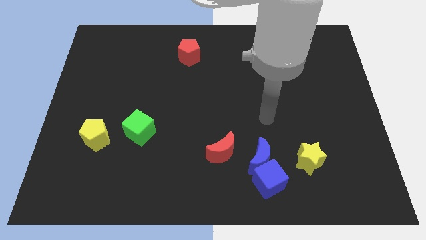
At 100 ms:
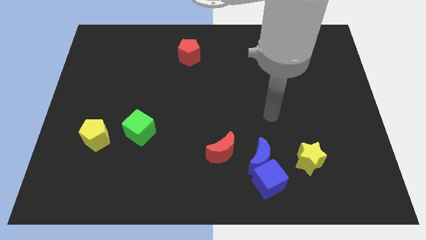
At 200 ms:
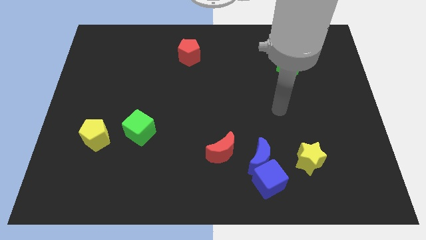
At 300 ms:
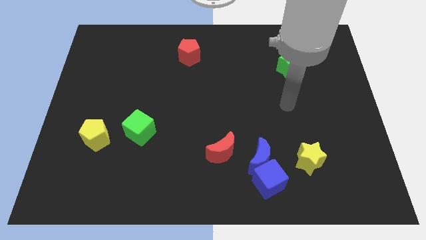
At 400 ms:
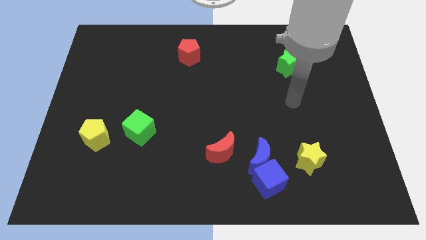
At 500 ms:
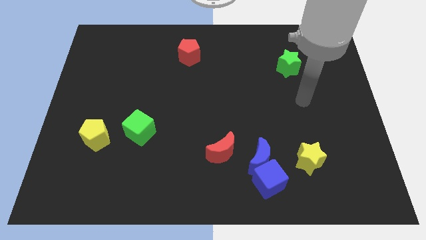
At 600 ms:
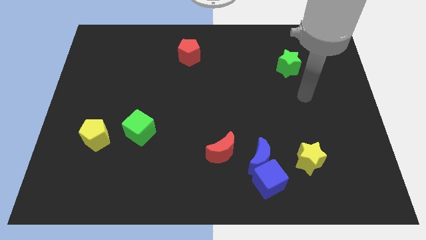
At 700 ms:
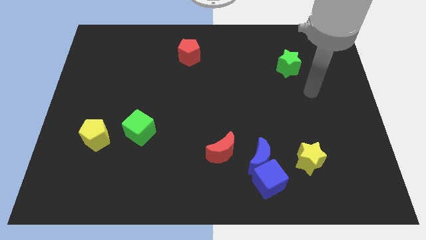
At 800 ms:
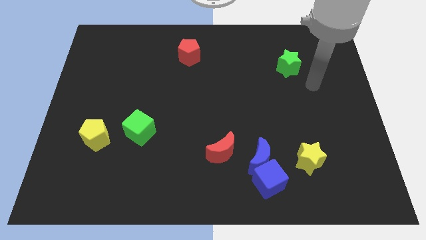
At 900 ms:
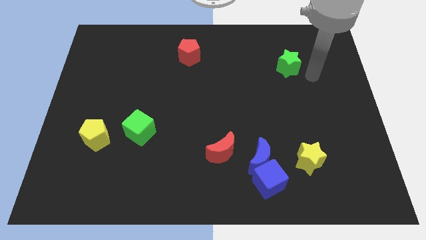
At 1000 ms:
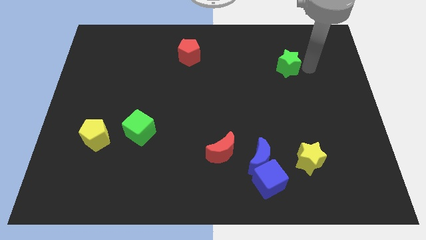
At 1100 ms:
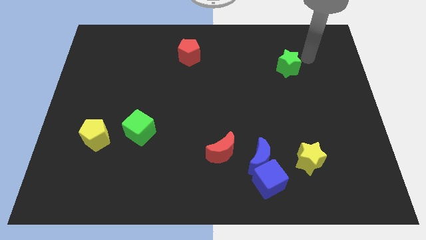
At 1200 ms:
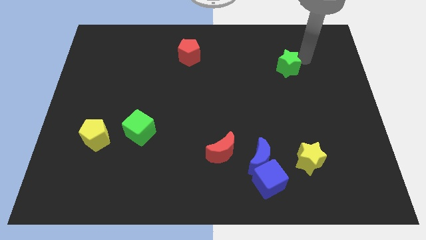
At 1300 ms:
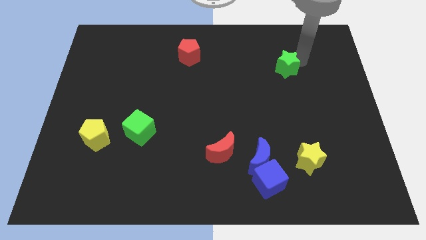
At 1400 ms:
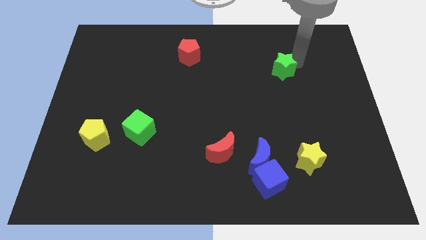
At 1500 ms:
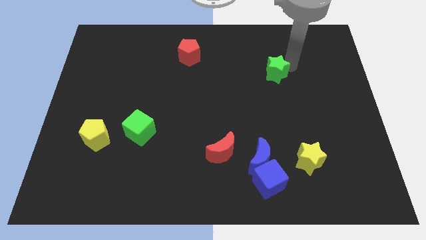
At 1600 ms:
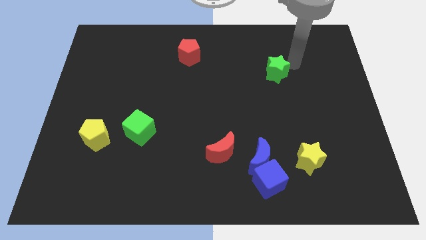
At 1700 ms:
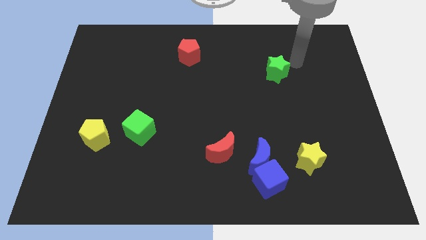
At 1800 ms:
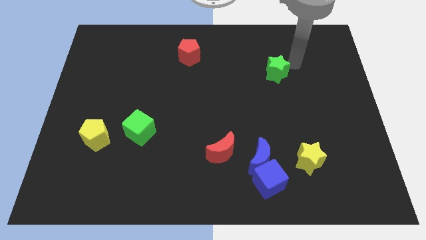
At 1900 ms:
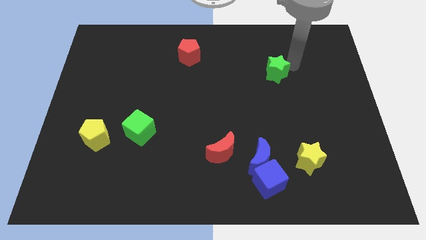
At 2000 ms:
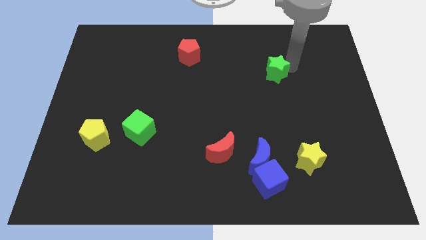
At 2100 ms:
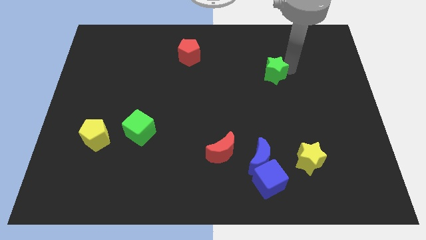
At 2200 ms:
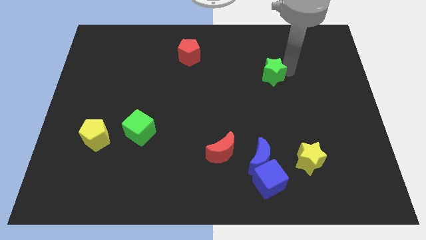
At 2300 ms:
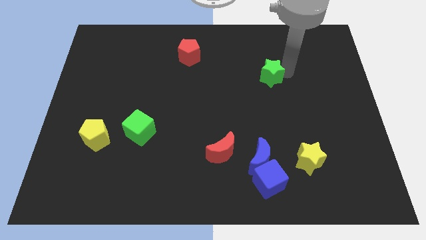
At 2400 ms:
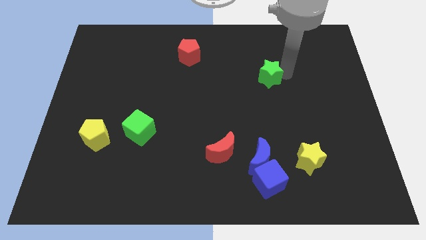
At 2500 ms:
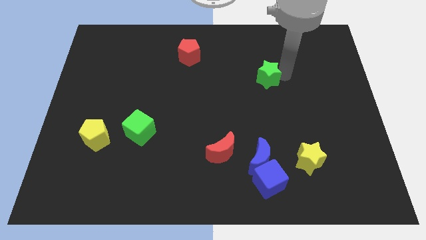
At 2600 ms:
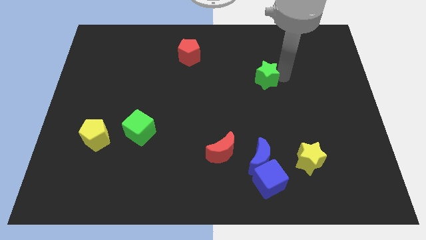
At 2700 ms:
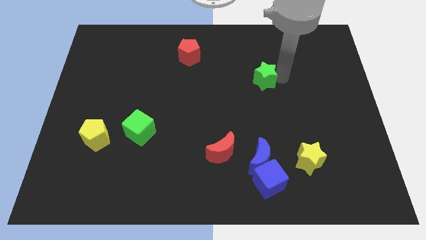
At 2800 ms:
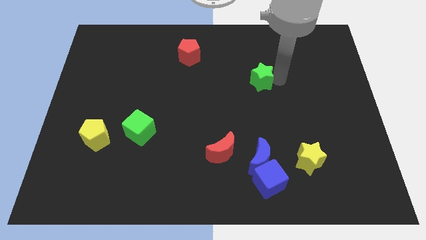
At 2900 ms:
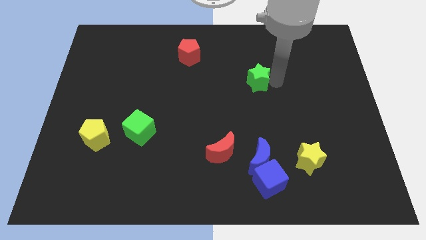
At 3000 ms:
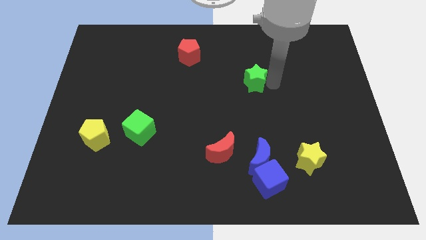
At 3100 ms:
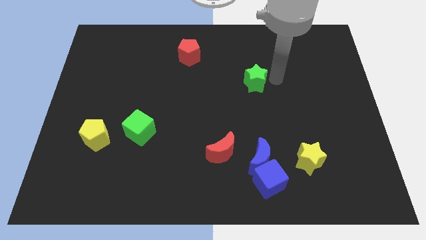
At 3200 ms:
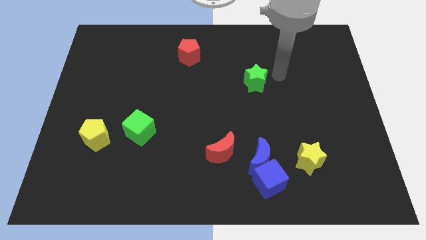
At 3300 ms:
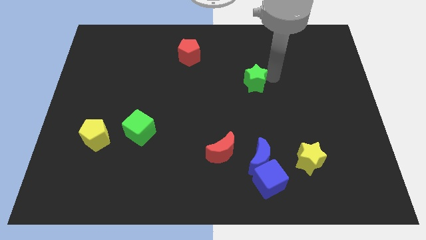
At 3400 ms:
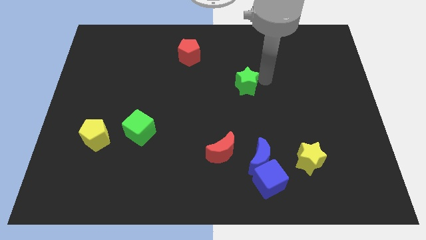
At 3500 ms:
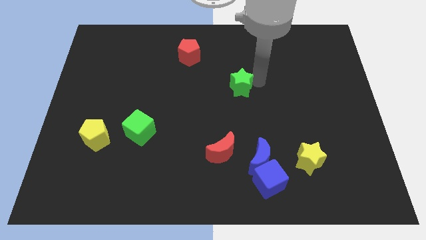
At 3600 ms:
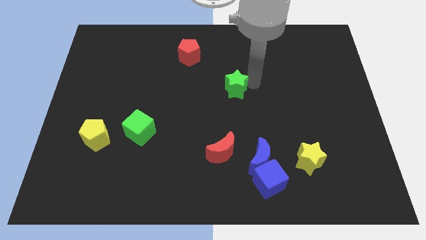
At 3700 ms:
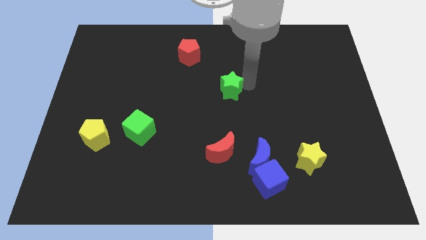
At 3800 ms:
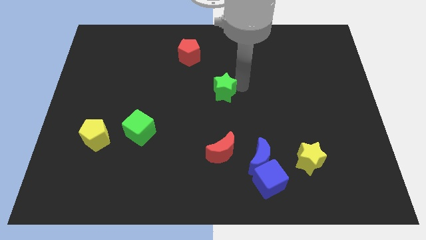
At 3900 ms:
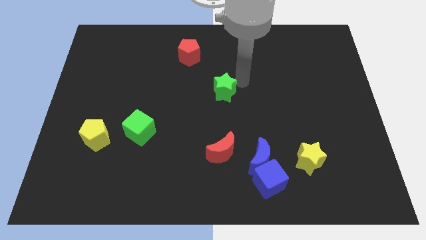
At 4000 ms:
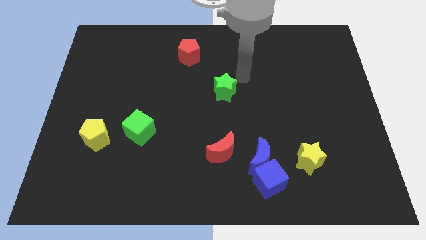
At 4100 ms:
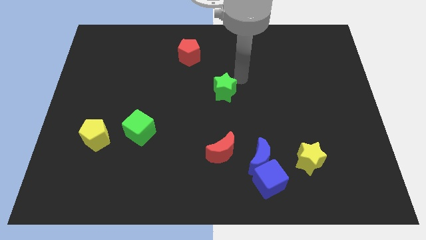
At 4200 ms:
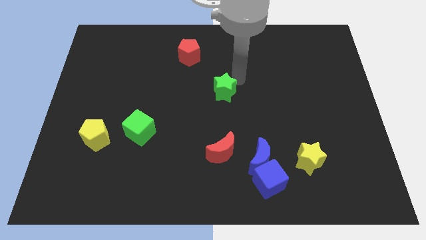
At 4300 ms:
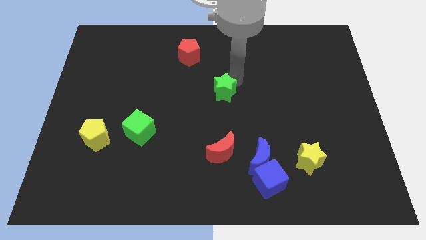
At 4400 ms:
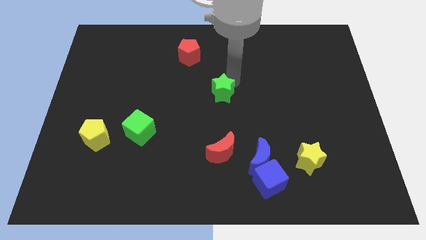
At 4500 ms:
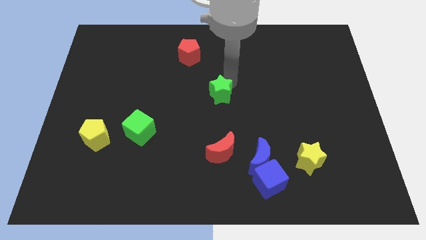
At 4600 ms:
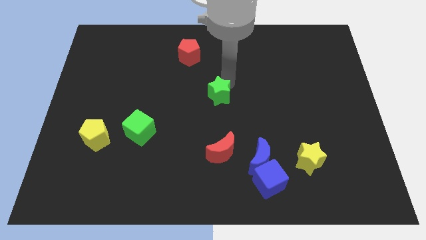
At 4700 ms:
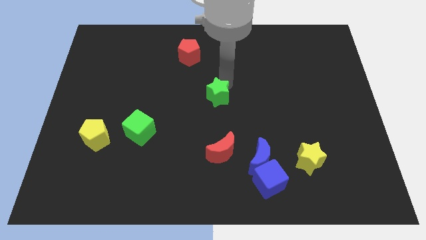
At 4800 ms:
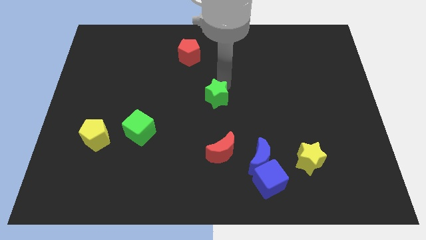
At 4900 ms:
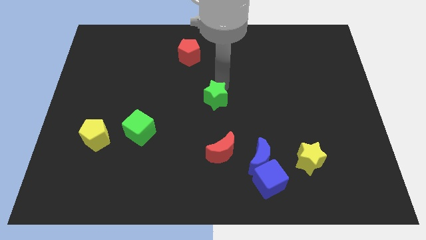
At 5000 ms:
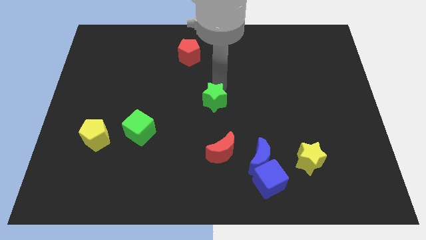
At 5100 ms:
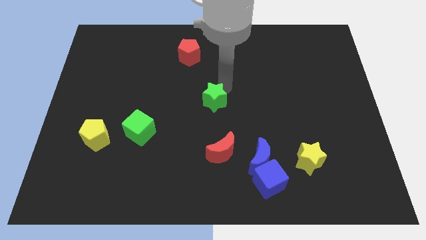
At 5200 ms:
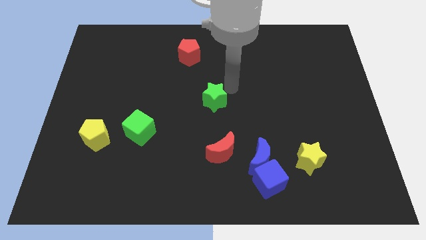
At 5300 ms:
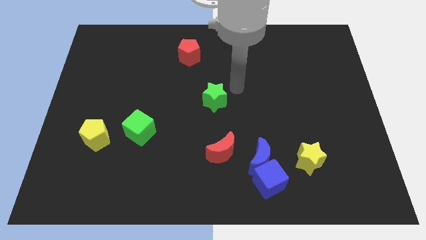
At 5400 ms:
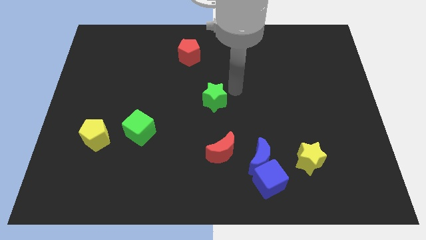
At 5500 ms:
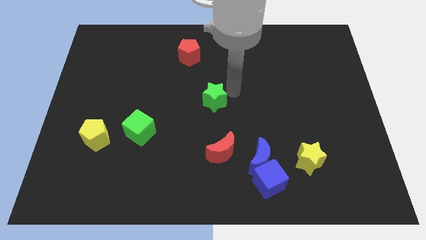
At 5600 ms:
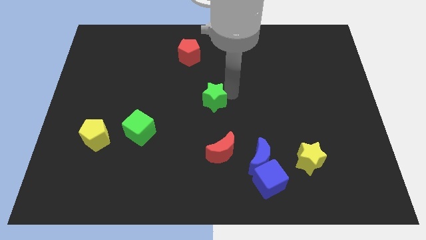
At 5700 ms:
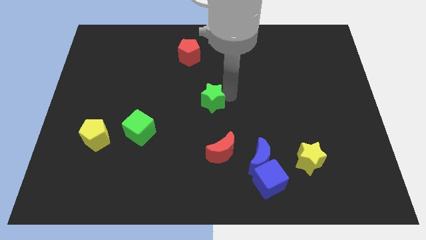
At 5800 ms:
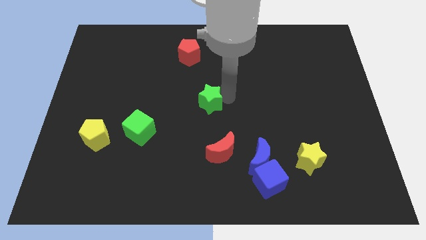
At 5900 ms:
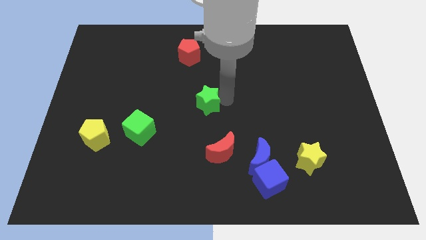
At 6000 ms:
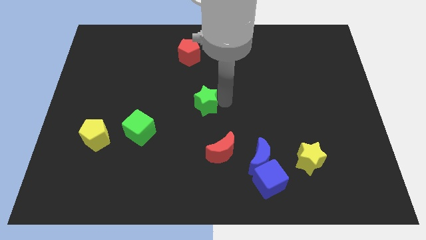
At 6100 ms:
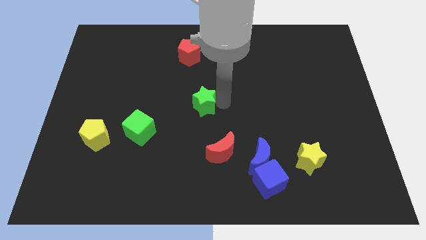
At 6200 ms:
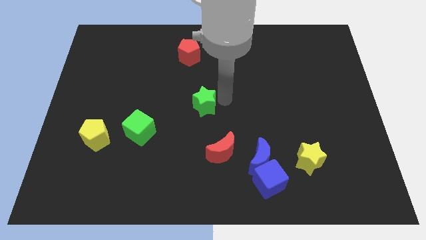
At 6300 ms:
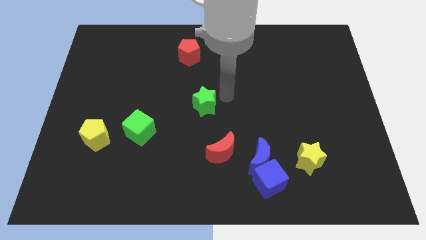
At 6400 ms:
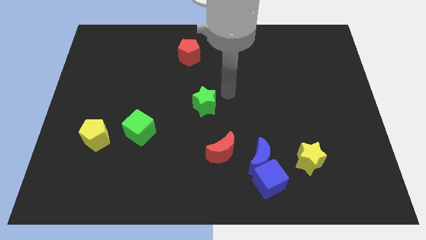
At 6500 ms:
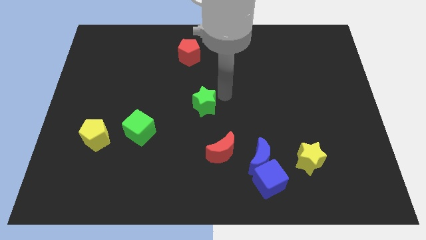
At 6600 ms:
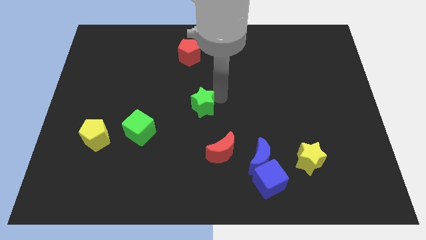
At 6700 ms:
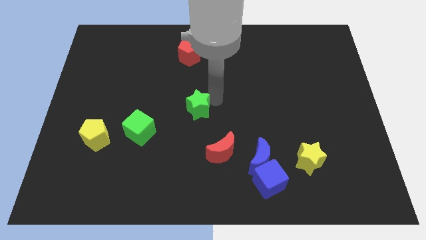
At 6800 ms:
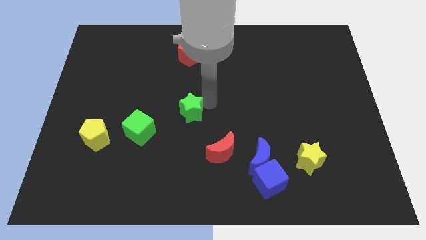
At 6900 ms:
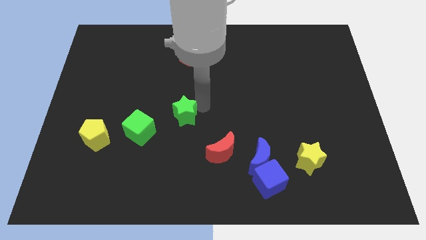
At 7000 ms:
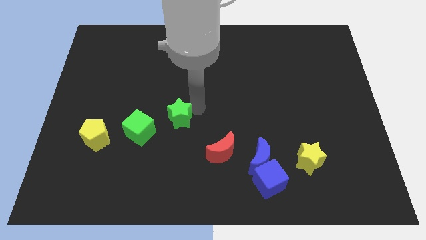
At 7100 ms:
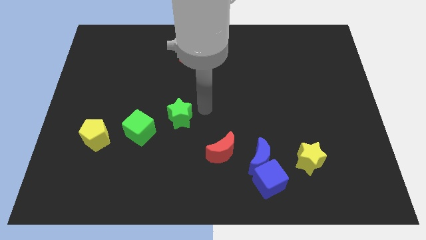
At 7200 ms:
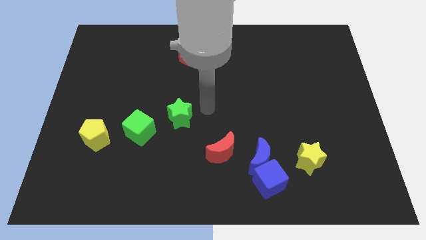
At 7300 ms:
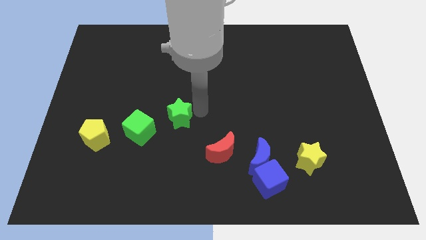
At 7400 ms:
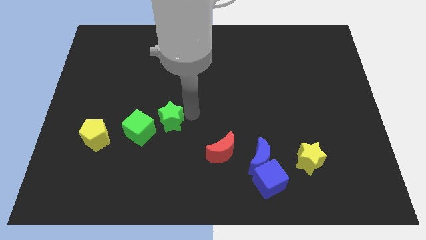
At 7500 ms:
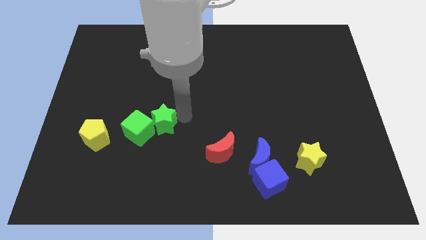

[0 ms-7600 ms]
put the green star close to the green cube
